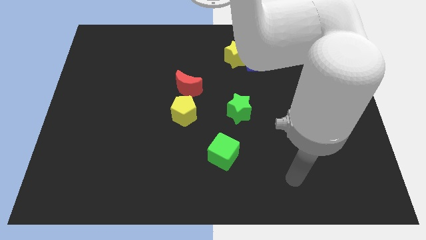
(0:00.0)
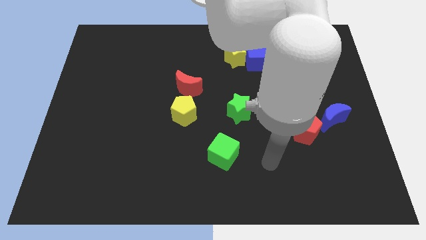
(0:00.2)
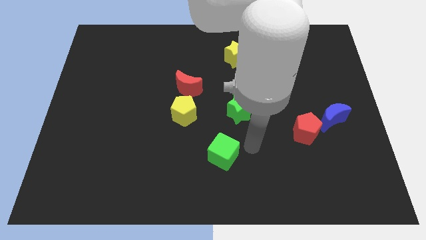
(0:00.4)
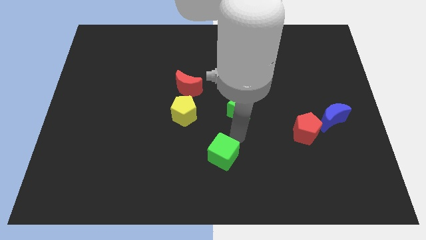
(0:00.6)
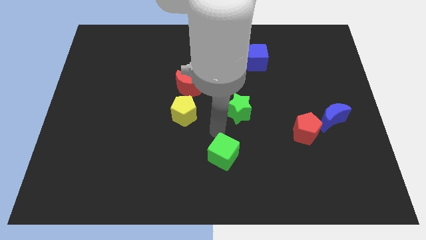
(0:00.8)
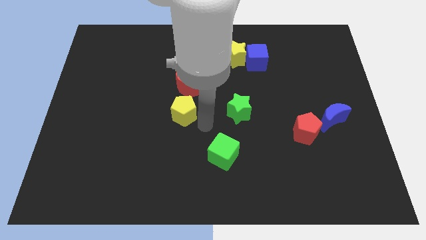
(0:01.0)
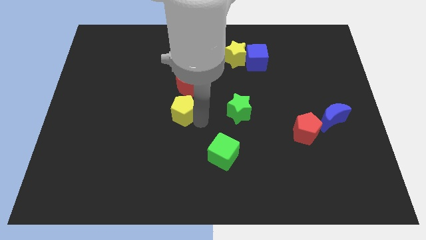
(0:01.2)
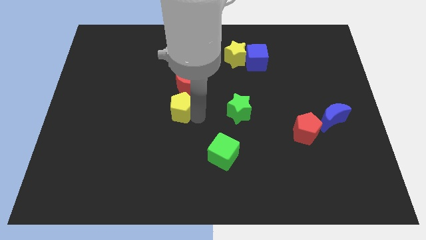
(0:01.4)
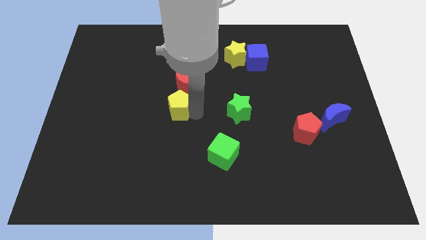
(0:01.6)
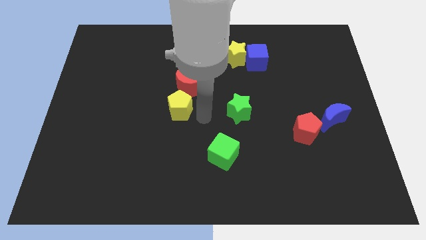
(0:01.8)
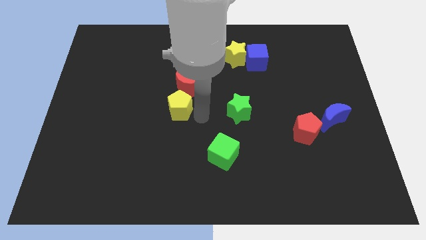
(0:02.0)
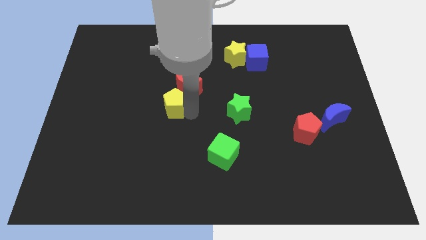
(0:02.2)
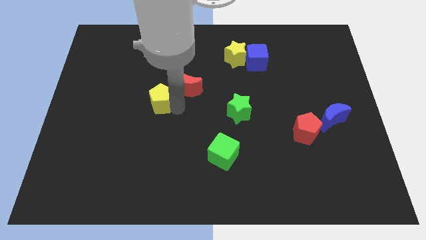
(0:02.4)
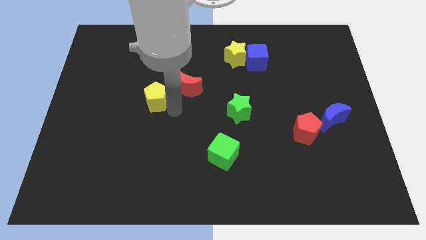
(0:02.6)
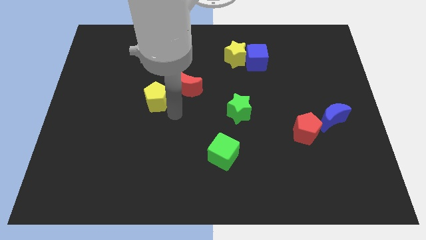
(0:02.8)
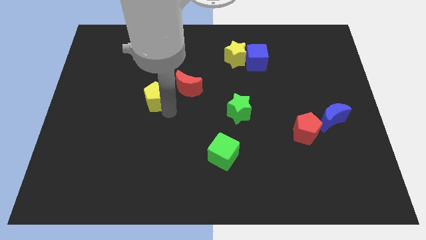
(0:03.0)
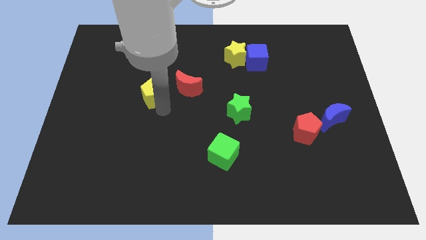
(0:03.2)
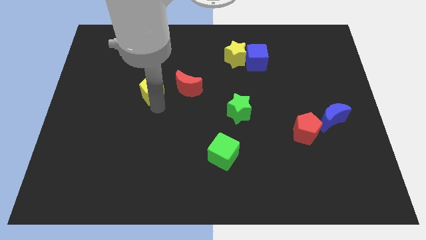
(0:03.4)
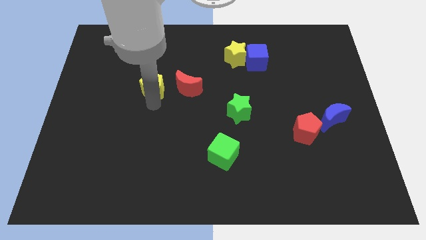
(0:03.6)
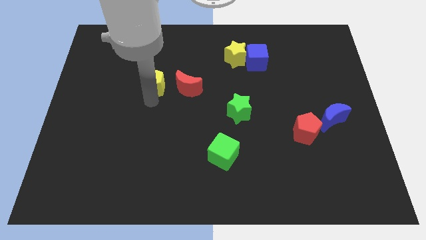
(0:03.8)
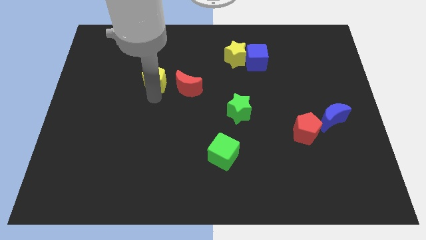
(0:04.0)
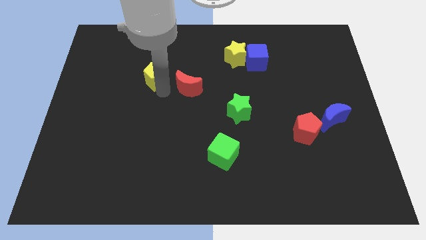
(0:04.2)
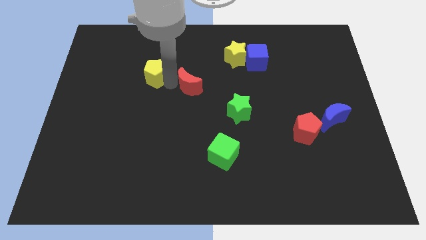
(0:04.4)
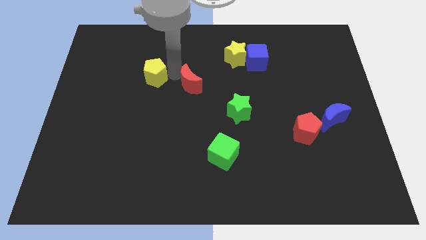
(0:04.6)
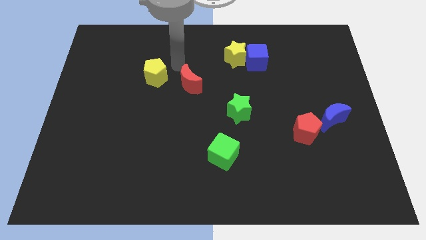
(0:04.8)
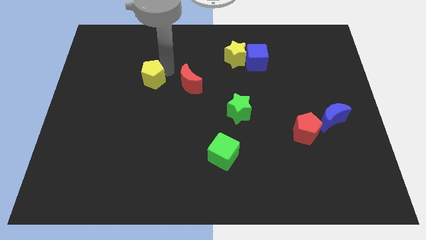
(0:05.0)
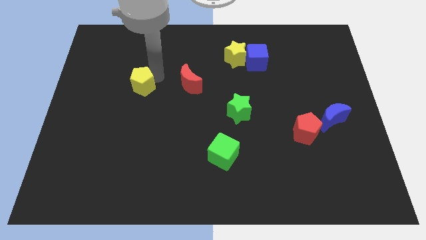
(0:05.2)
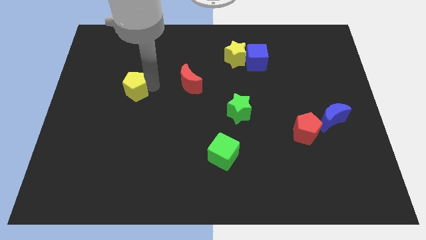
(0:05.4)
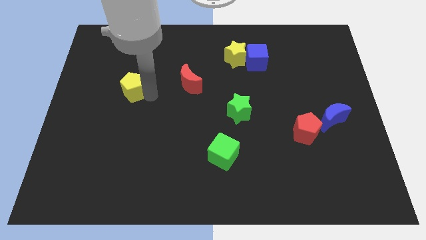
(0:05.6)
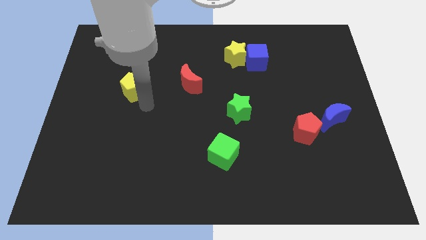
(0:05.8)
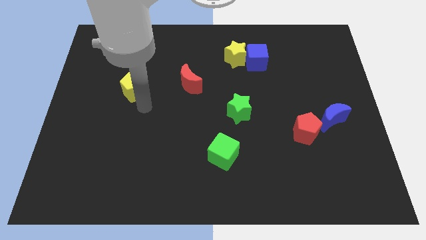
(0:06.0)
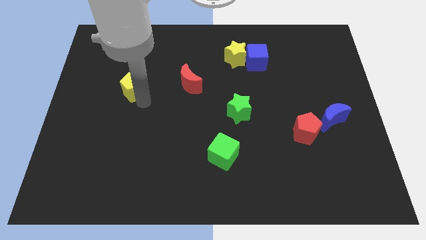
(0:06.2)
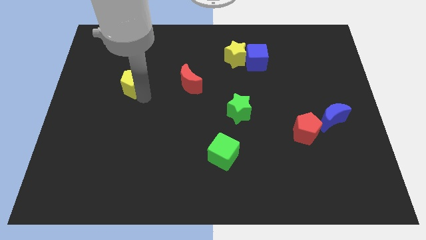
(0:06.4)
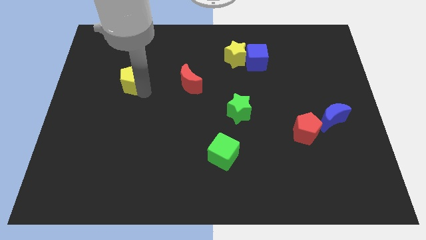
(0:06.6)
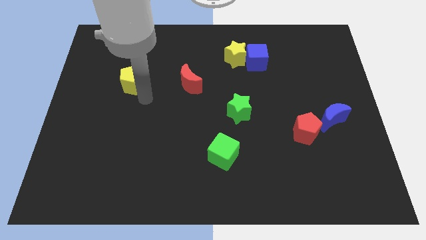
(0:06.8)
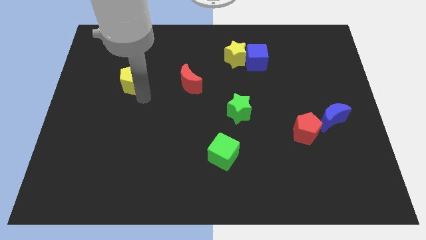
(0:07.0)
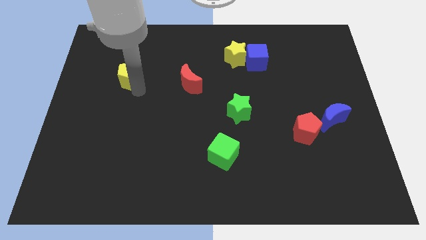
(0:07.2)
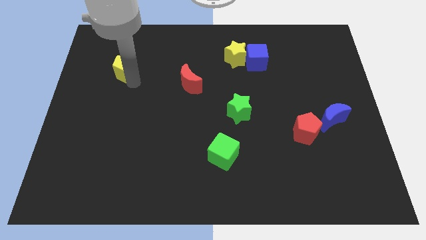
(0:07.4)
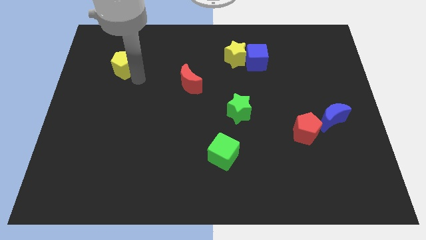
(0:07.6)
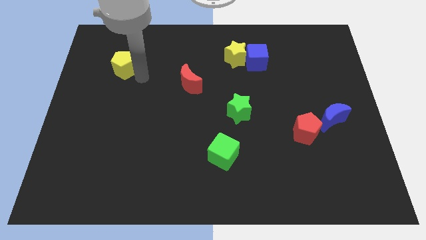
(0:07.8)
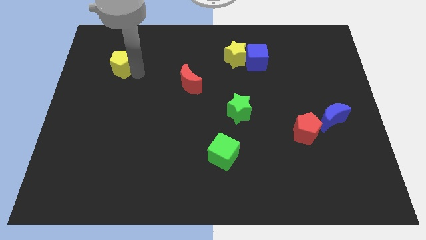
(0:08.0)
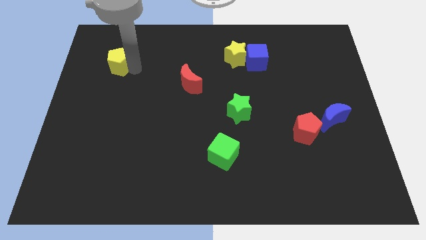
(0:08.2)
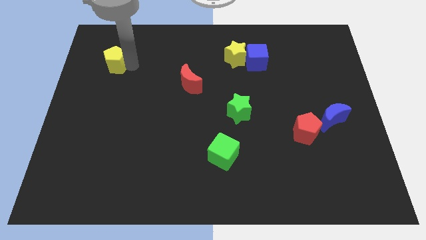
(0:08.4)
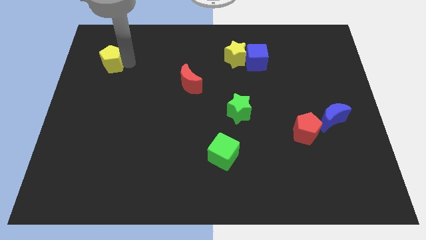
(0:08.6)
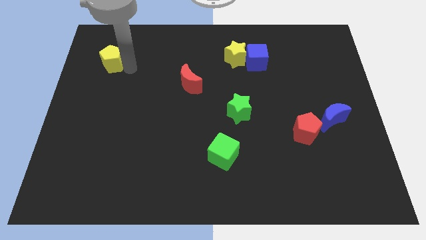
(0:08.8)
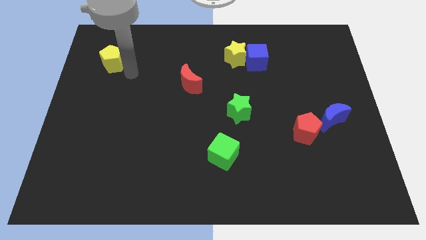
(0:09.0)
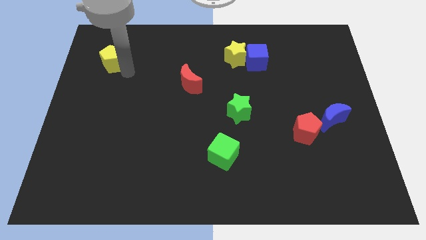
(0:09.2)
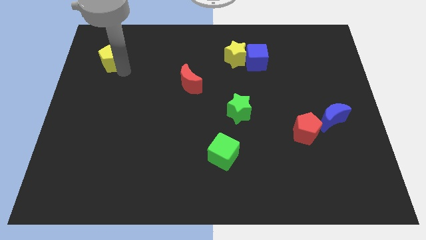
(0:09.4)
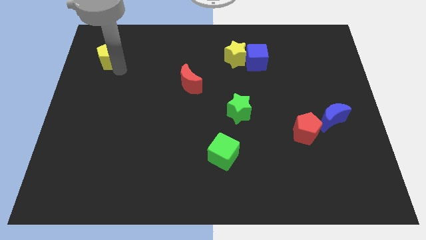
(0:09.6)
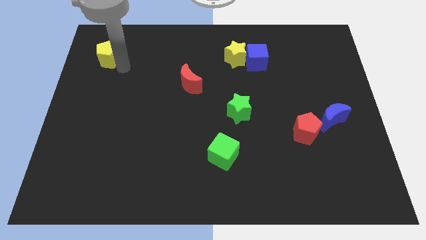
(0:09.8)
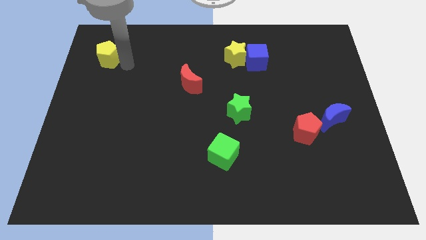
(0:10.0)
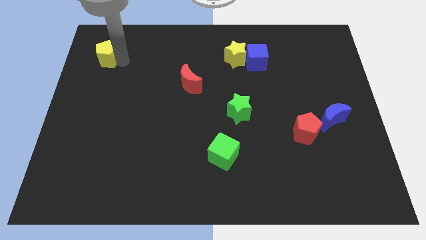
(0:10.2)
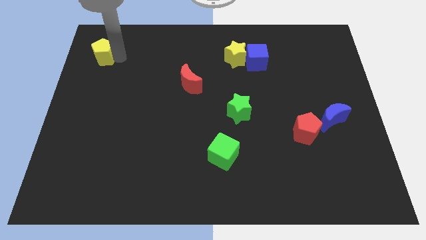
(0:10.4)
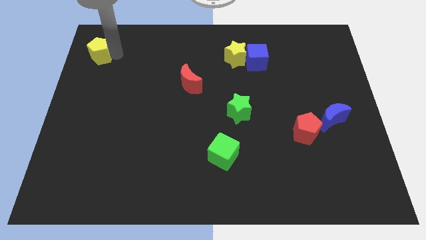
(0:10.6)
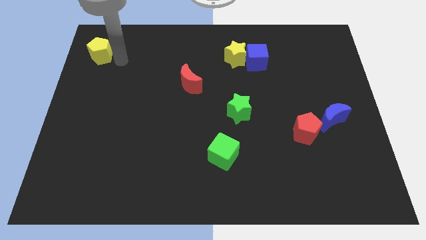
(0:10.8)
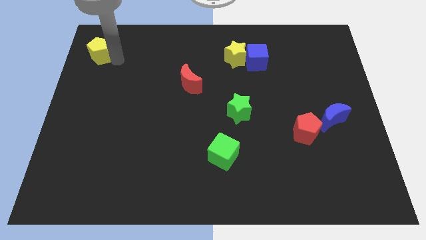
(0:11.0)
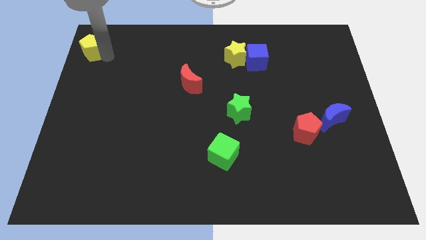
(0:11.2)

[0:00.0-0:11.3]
slide the yellow pentagon to the upper left corner

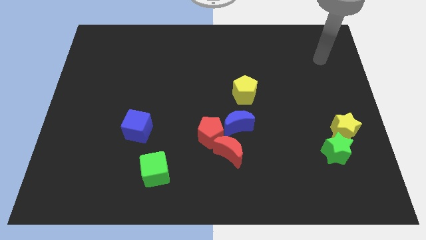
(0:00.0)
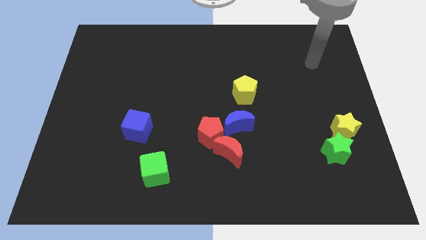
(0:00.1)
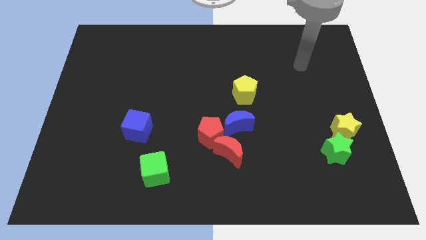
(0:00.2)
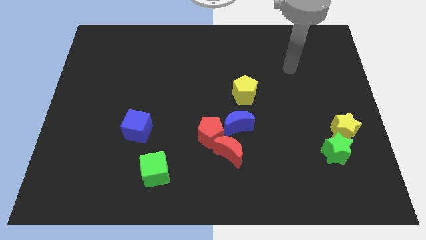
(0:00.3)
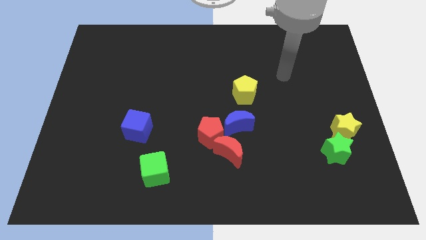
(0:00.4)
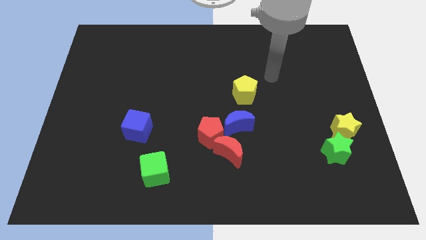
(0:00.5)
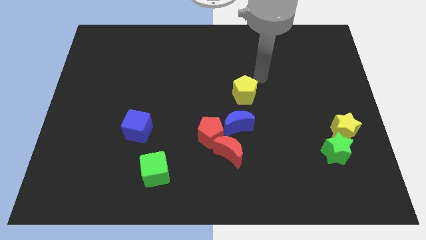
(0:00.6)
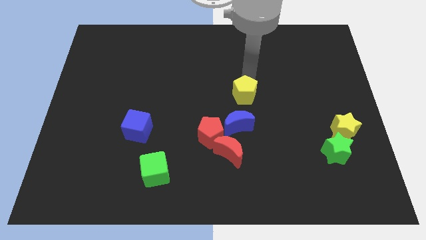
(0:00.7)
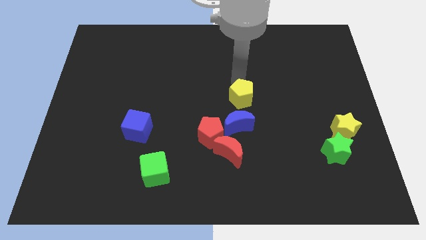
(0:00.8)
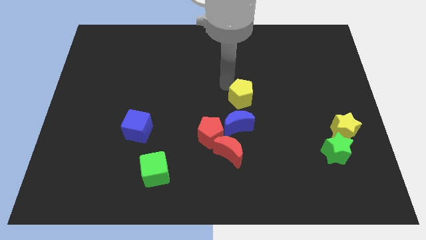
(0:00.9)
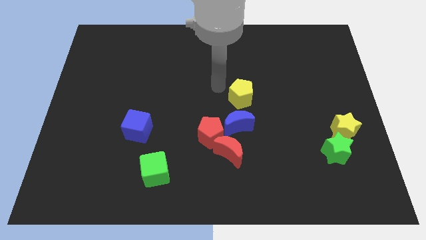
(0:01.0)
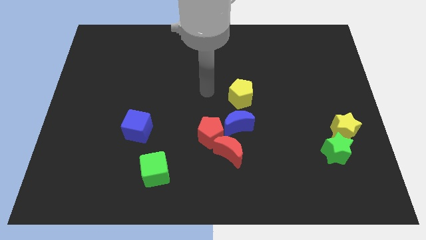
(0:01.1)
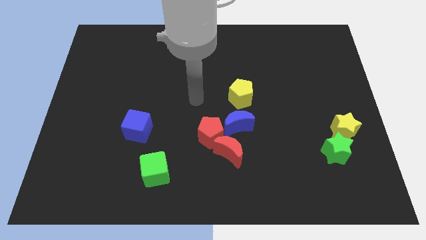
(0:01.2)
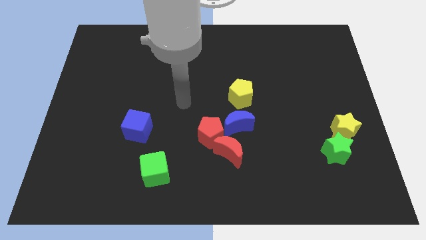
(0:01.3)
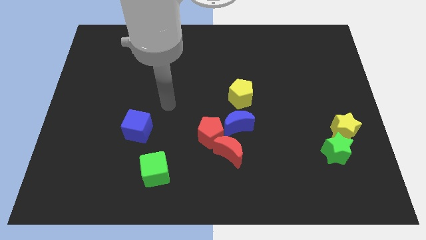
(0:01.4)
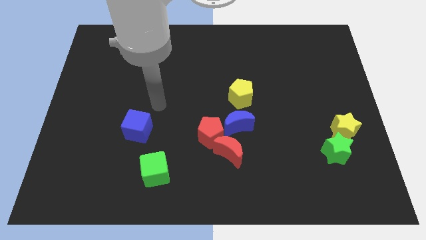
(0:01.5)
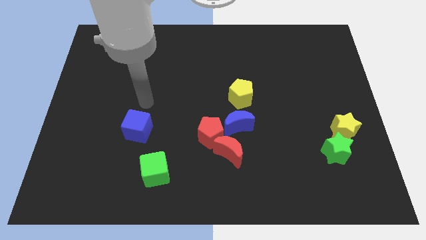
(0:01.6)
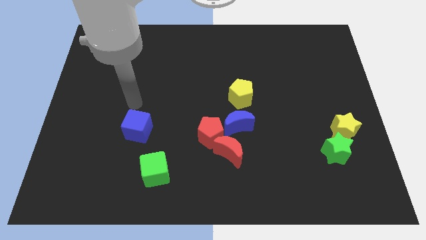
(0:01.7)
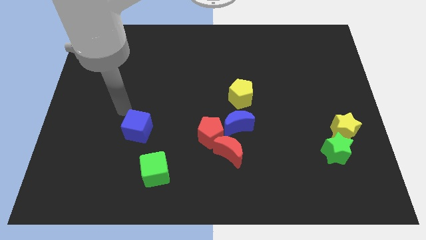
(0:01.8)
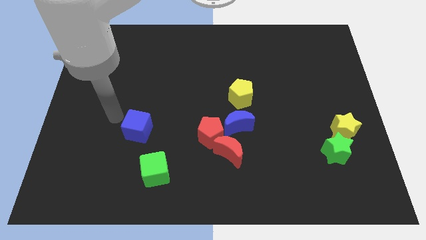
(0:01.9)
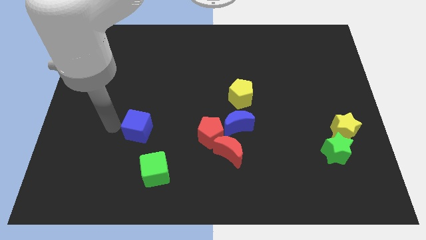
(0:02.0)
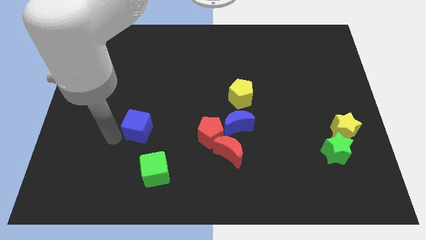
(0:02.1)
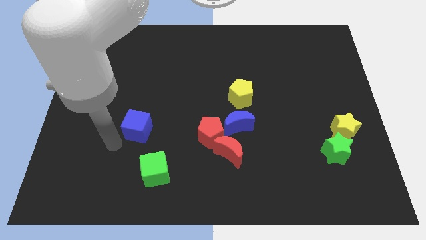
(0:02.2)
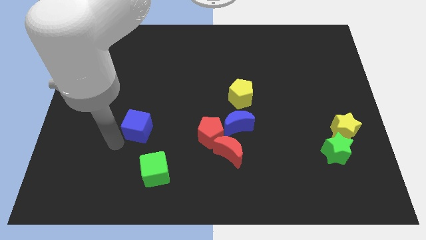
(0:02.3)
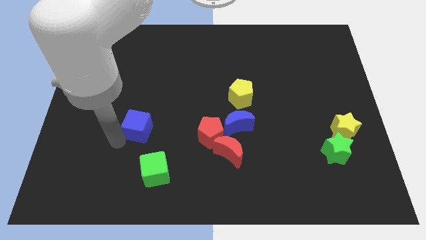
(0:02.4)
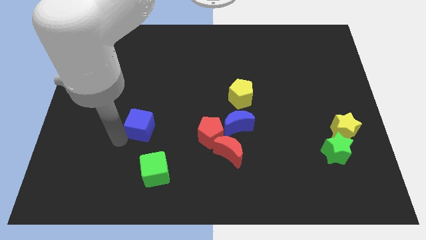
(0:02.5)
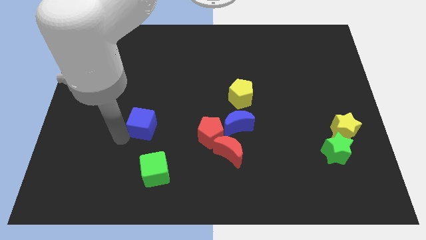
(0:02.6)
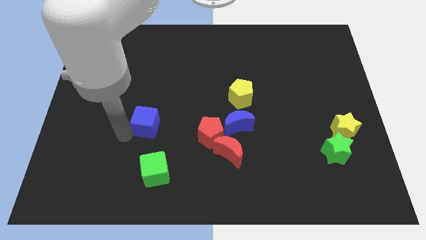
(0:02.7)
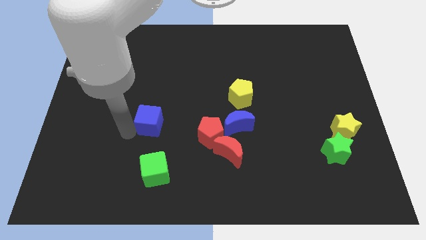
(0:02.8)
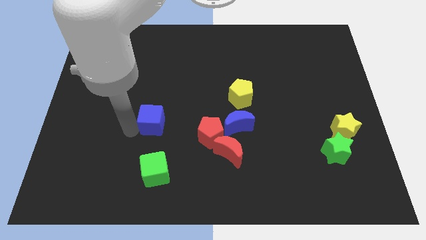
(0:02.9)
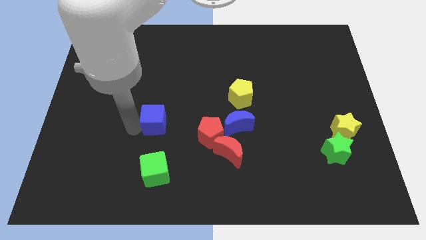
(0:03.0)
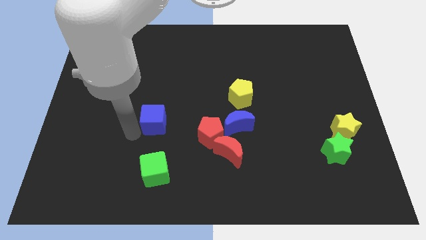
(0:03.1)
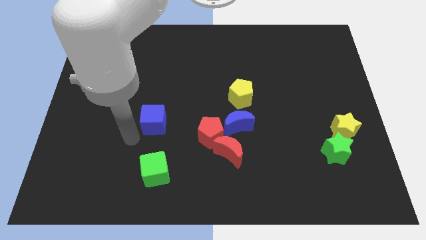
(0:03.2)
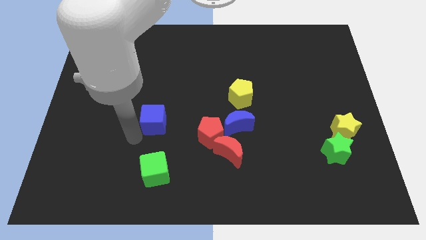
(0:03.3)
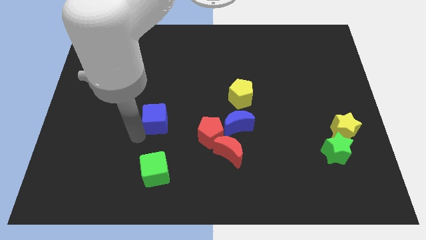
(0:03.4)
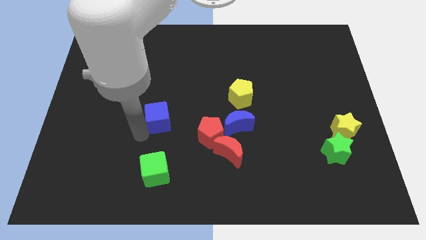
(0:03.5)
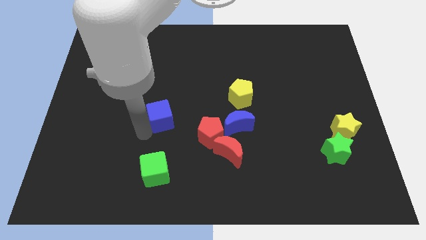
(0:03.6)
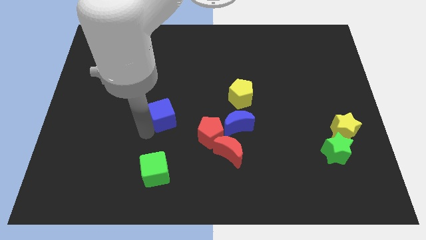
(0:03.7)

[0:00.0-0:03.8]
slide the blue cube to the middle of the board
